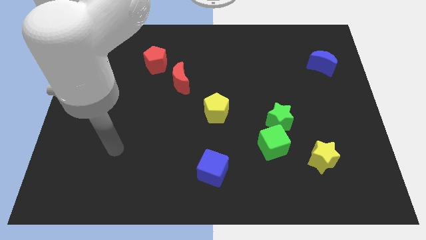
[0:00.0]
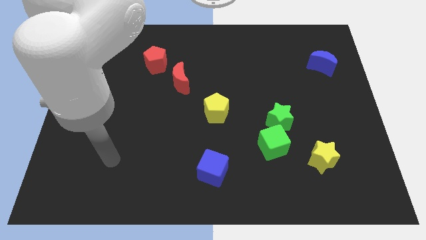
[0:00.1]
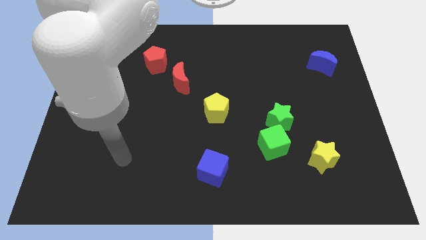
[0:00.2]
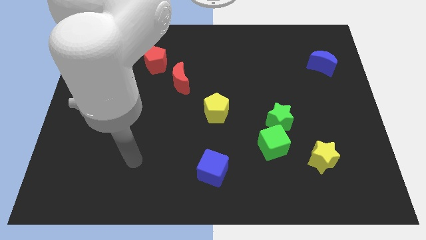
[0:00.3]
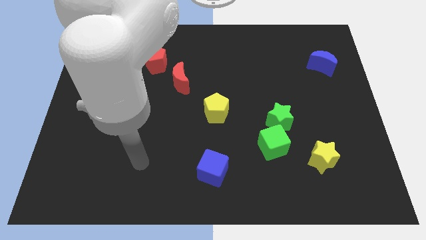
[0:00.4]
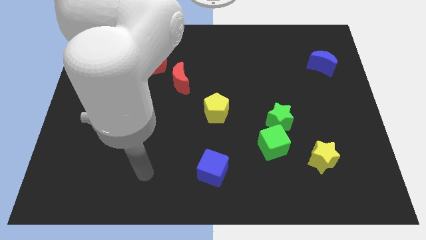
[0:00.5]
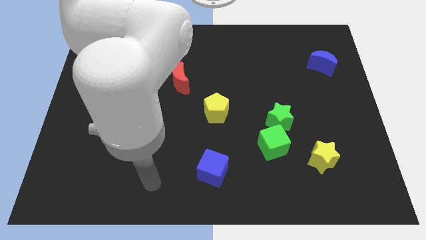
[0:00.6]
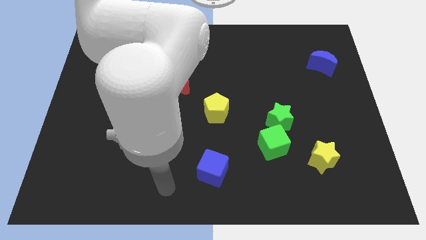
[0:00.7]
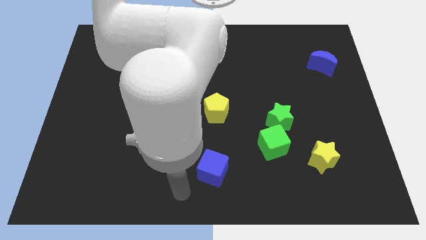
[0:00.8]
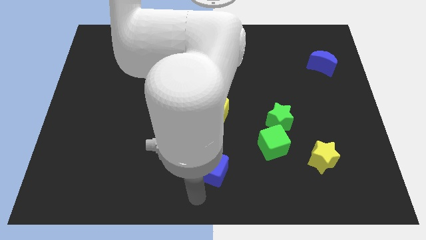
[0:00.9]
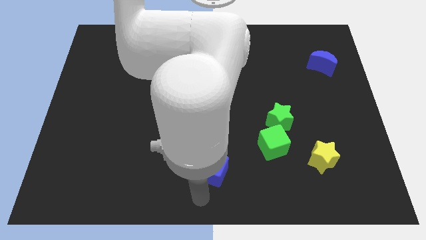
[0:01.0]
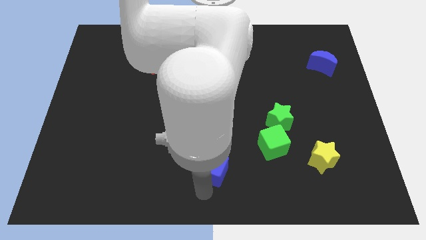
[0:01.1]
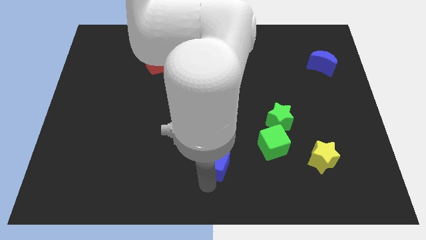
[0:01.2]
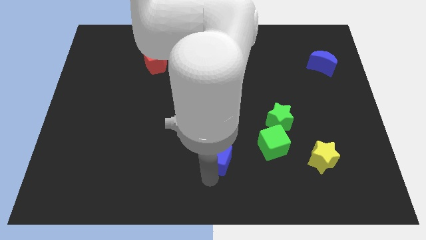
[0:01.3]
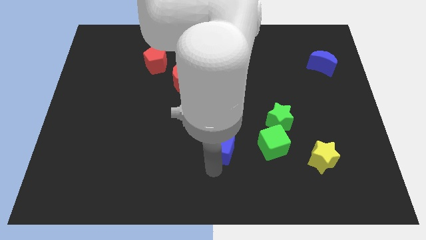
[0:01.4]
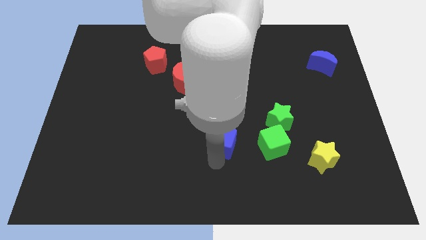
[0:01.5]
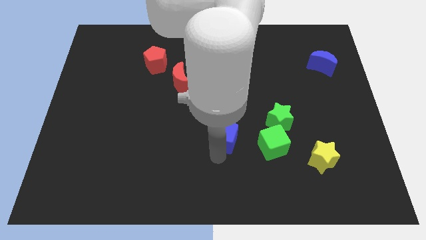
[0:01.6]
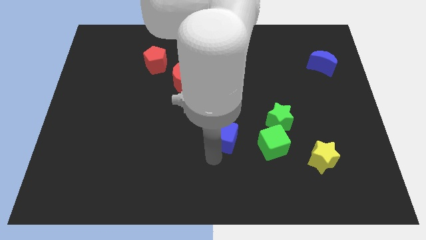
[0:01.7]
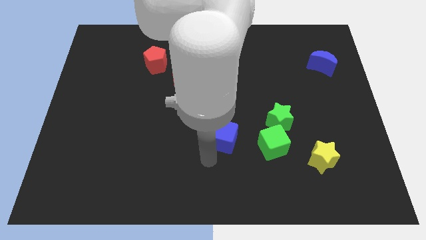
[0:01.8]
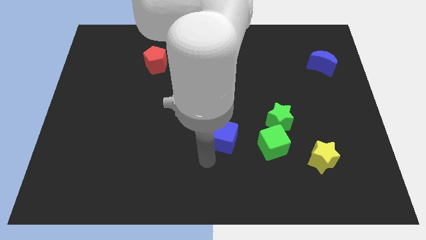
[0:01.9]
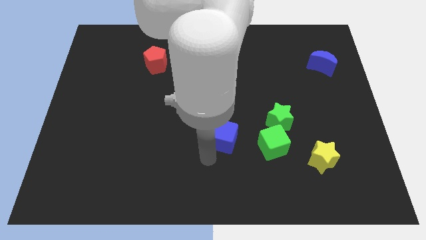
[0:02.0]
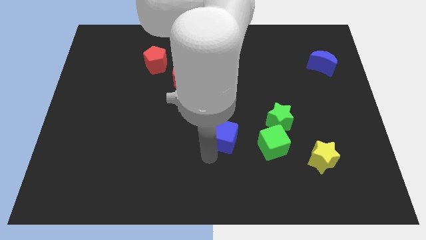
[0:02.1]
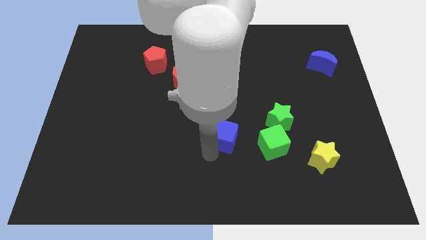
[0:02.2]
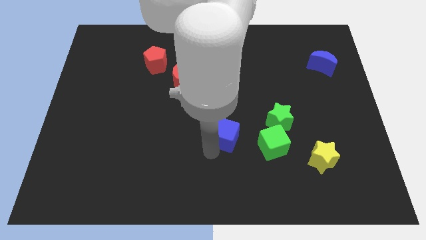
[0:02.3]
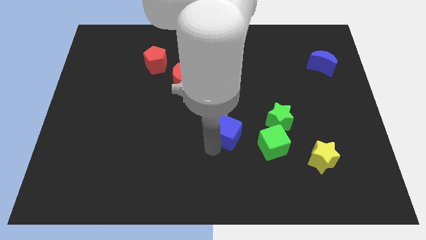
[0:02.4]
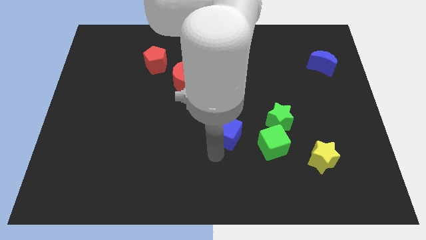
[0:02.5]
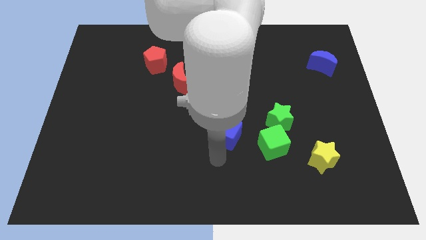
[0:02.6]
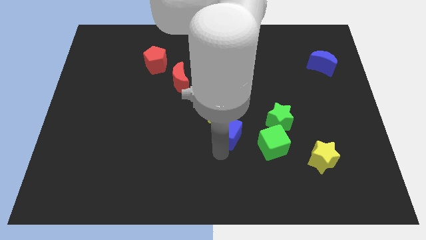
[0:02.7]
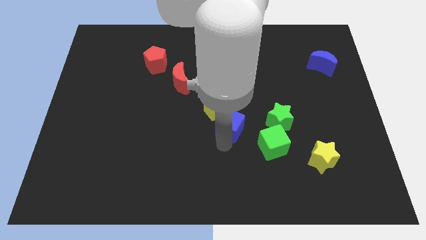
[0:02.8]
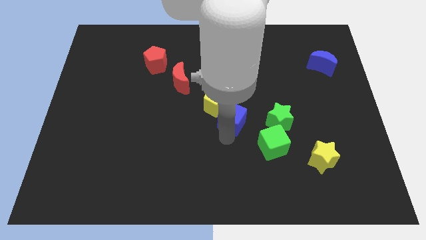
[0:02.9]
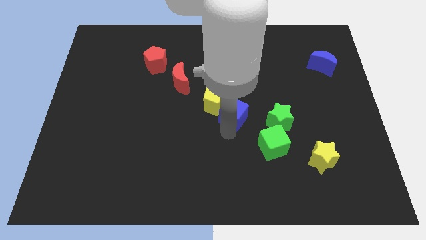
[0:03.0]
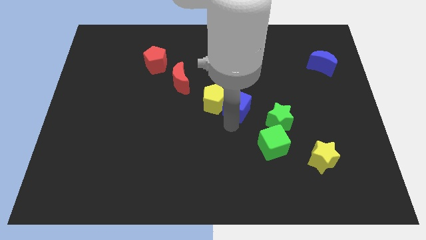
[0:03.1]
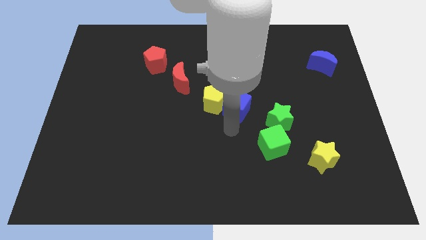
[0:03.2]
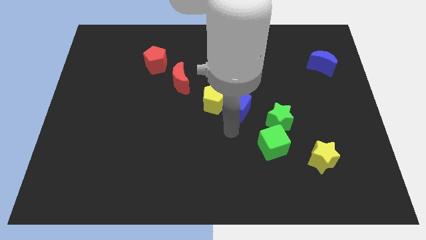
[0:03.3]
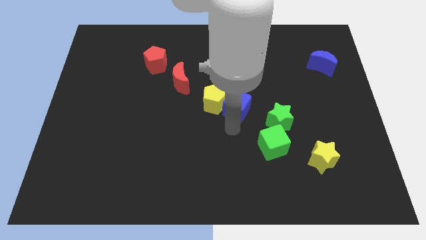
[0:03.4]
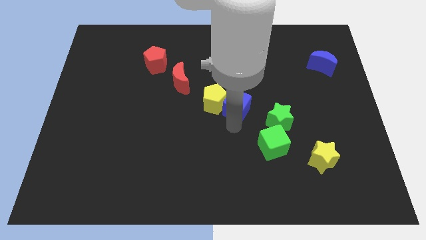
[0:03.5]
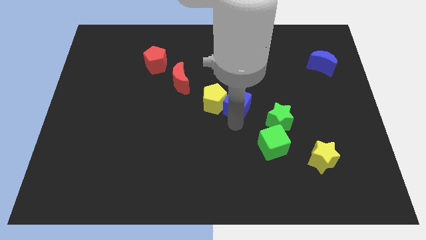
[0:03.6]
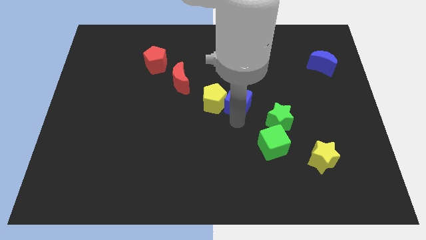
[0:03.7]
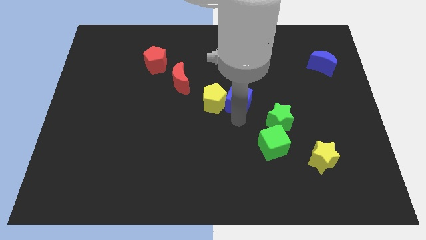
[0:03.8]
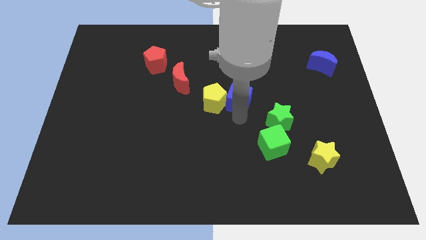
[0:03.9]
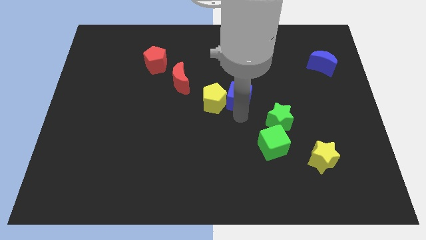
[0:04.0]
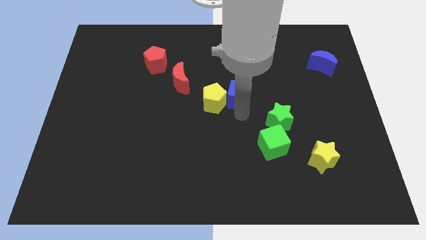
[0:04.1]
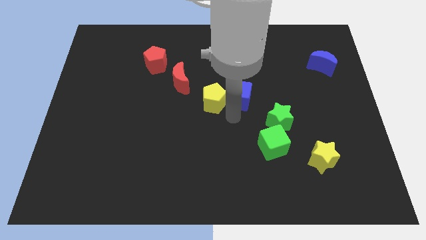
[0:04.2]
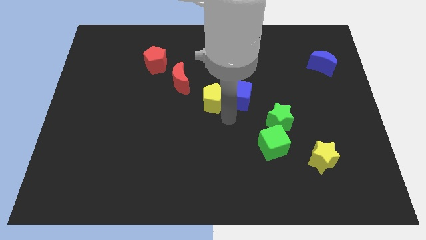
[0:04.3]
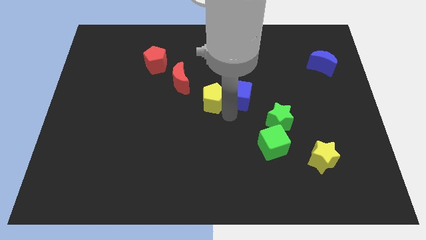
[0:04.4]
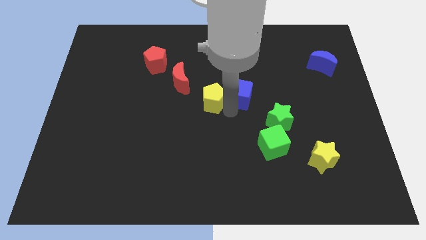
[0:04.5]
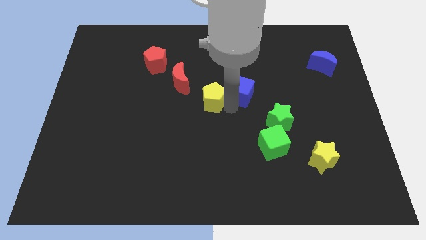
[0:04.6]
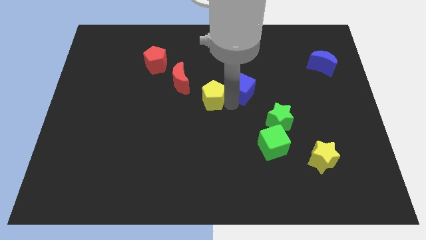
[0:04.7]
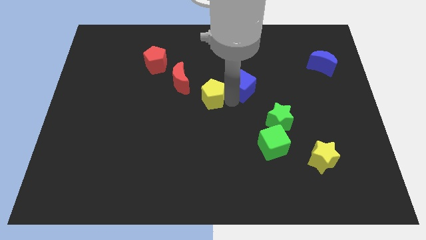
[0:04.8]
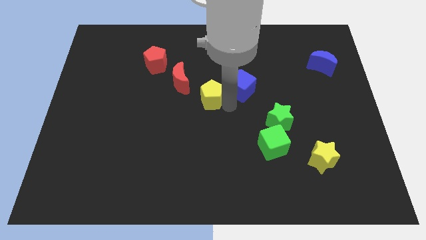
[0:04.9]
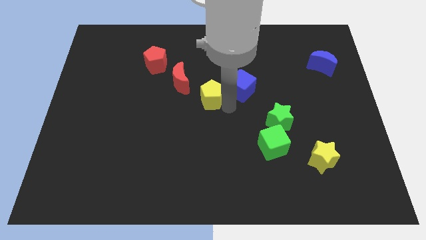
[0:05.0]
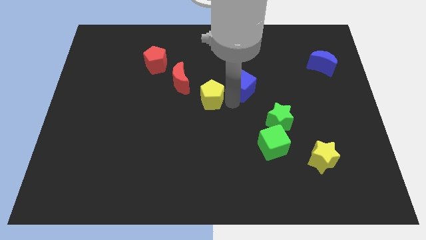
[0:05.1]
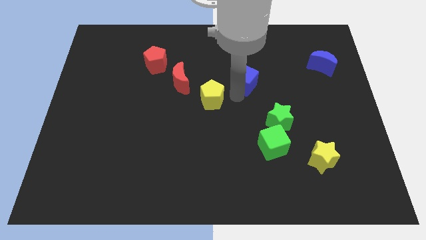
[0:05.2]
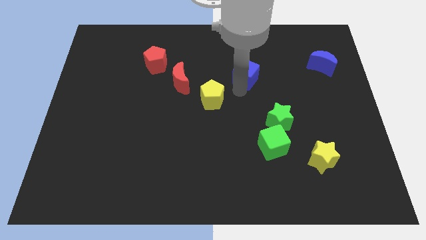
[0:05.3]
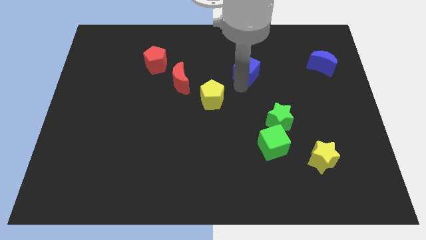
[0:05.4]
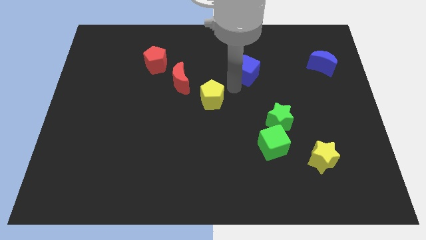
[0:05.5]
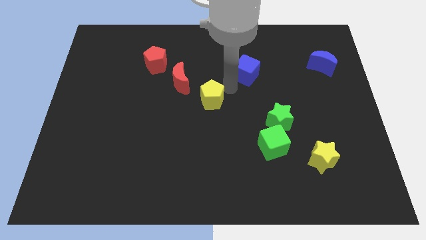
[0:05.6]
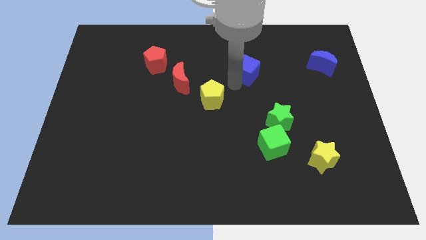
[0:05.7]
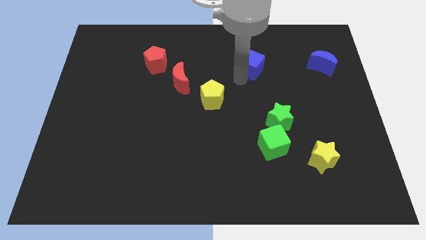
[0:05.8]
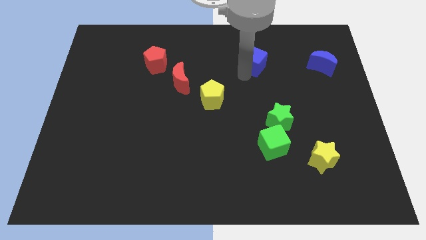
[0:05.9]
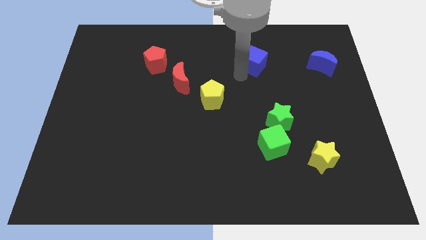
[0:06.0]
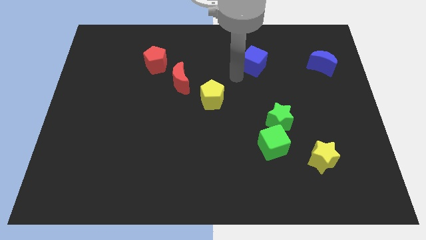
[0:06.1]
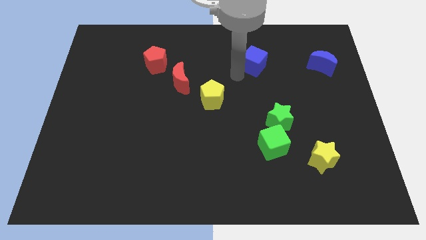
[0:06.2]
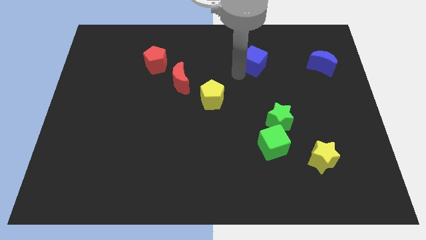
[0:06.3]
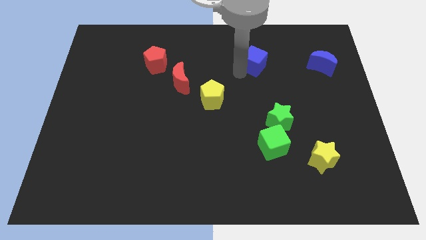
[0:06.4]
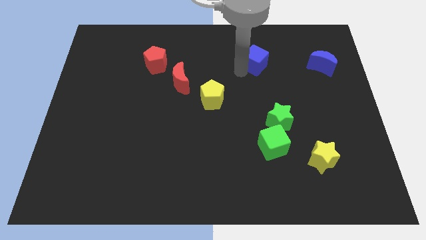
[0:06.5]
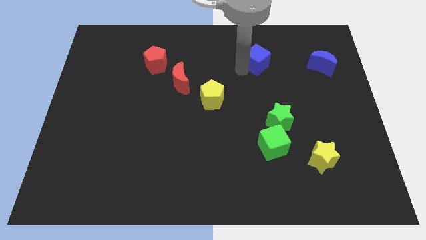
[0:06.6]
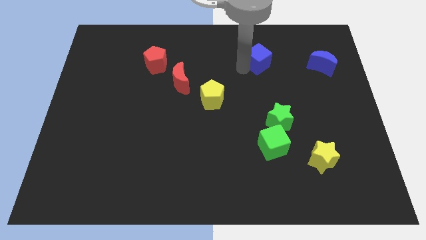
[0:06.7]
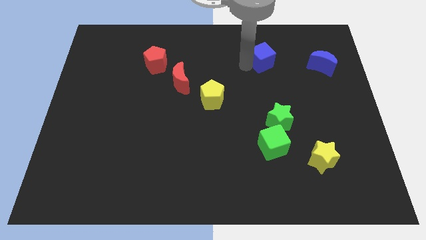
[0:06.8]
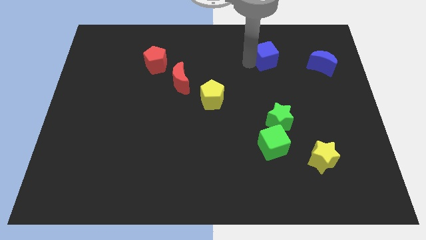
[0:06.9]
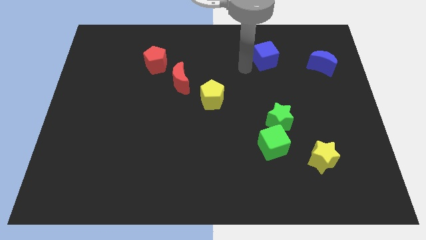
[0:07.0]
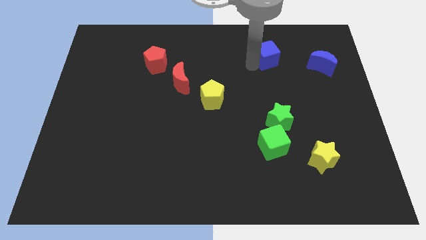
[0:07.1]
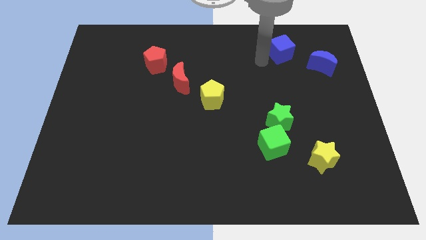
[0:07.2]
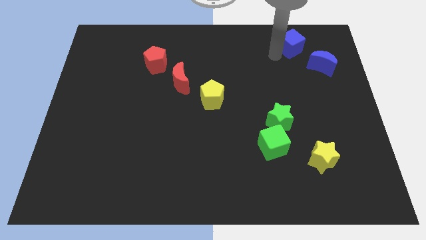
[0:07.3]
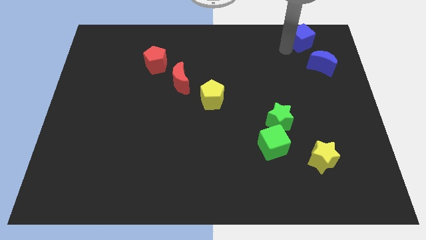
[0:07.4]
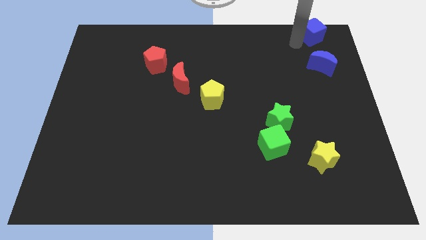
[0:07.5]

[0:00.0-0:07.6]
push the blue cube to the top right of the board
